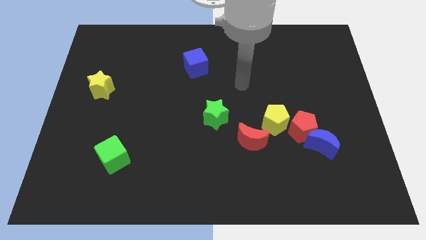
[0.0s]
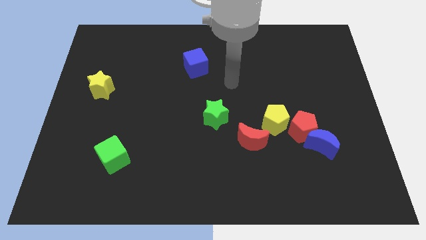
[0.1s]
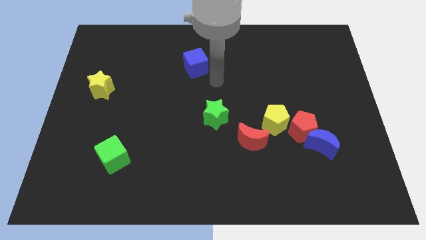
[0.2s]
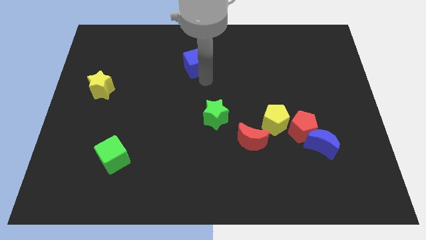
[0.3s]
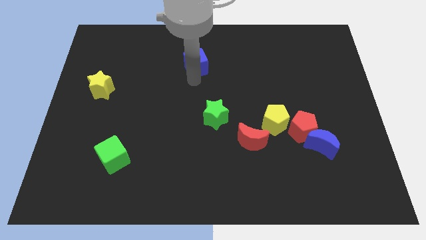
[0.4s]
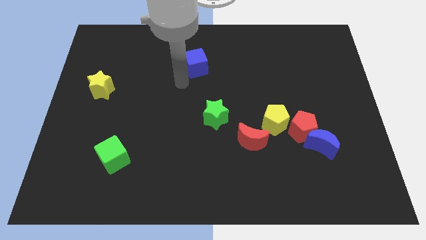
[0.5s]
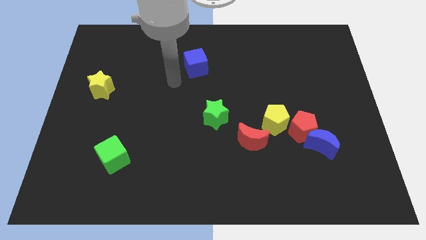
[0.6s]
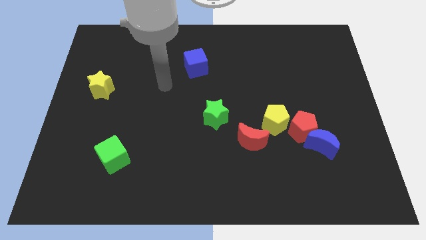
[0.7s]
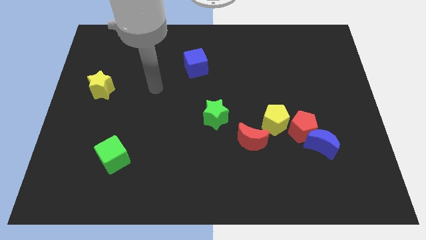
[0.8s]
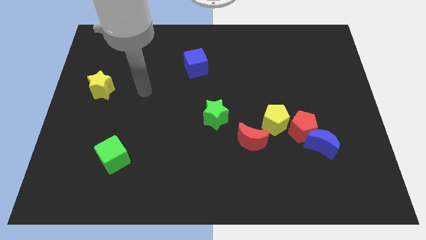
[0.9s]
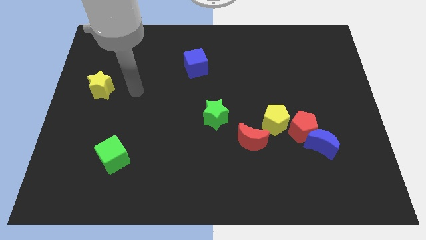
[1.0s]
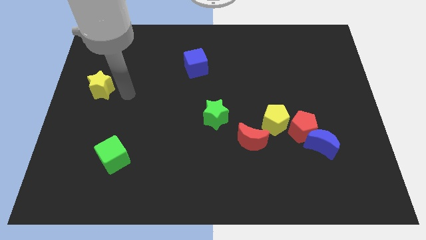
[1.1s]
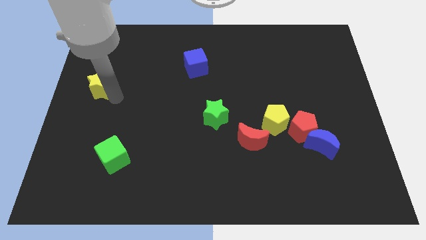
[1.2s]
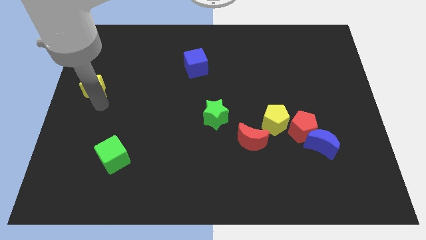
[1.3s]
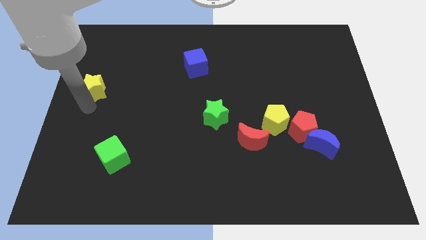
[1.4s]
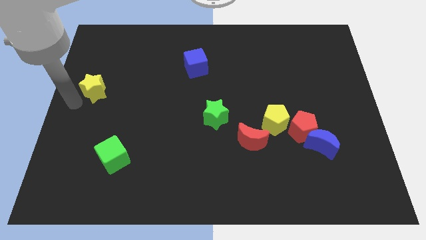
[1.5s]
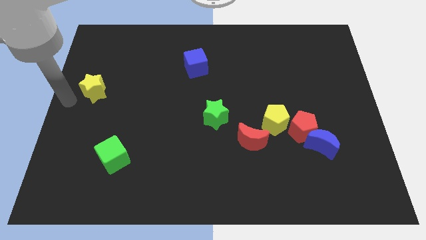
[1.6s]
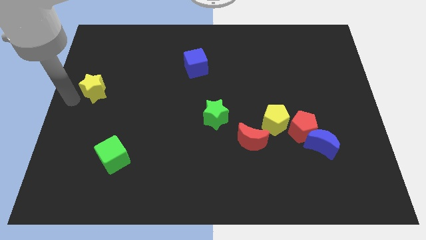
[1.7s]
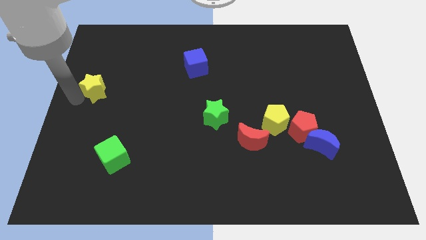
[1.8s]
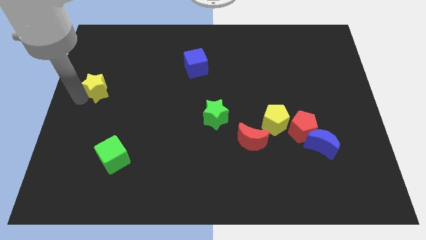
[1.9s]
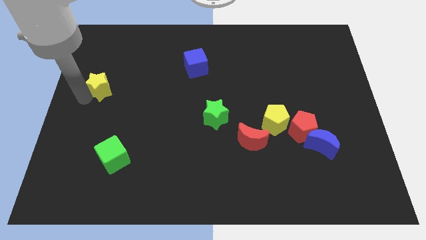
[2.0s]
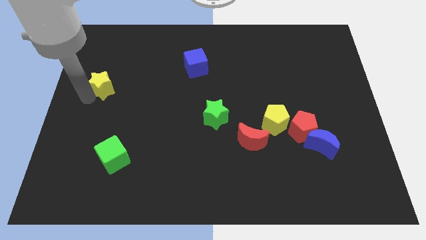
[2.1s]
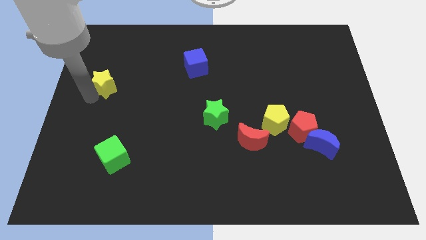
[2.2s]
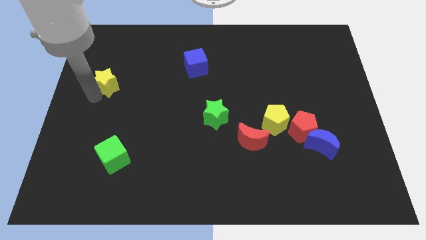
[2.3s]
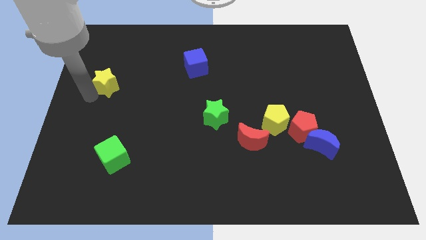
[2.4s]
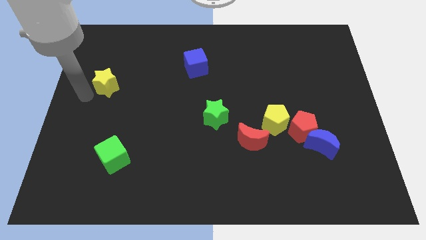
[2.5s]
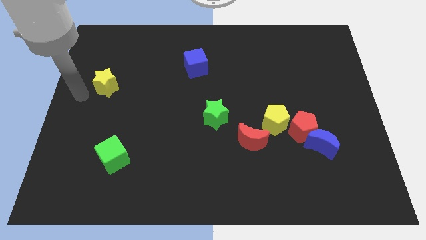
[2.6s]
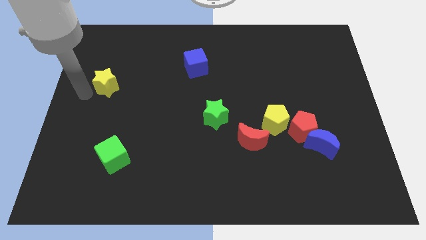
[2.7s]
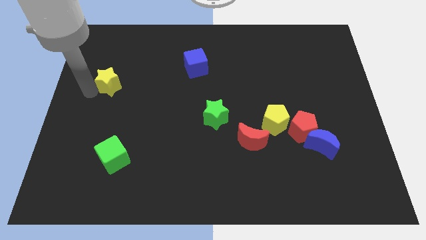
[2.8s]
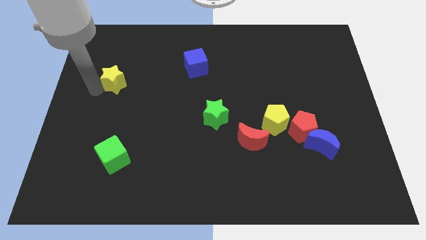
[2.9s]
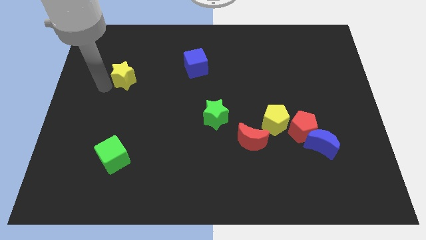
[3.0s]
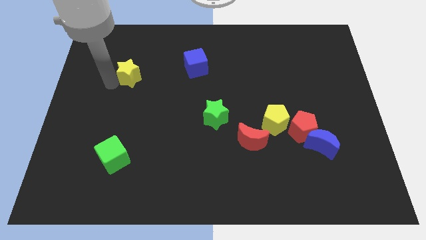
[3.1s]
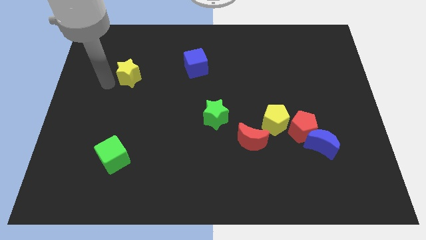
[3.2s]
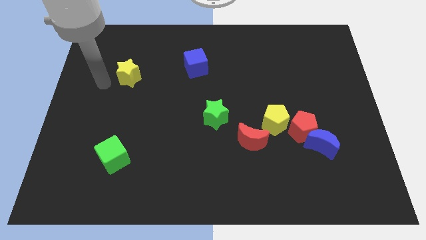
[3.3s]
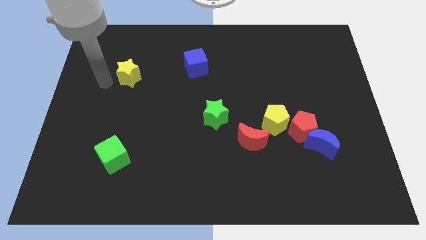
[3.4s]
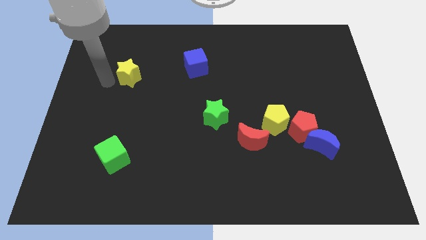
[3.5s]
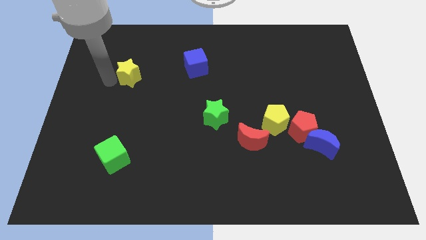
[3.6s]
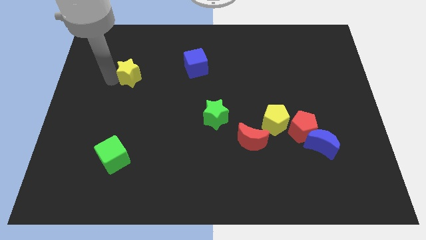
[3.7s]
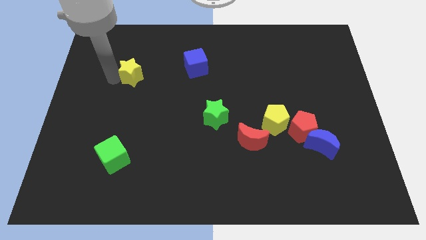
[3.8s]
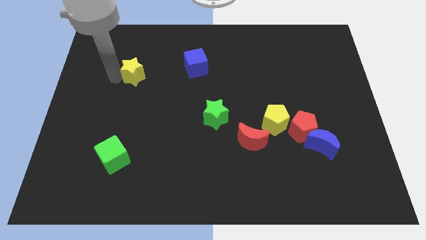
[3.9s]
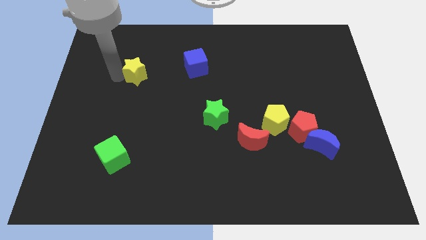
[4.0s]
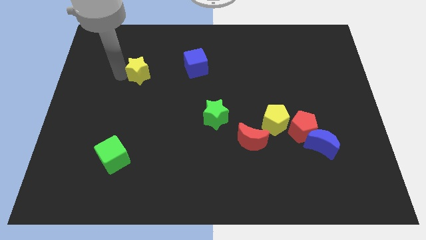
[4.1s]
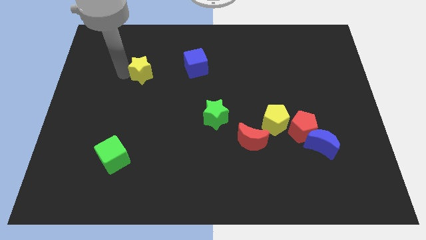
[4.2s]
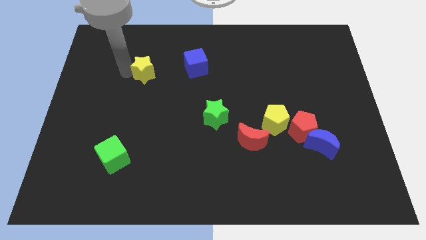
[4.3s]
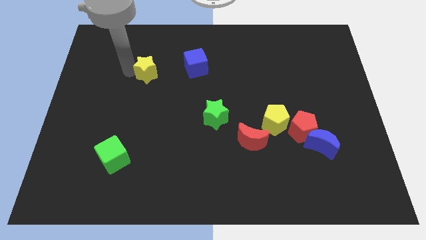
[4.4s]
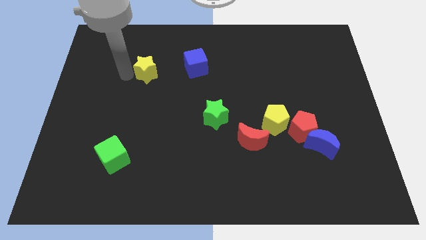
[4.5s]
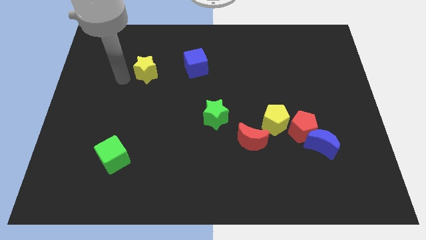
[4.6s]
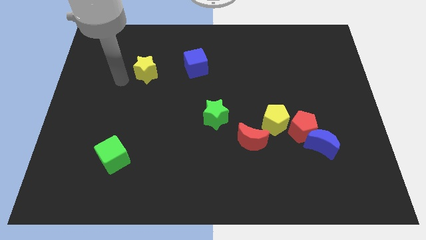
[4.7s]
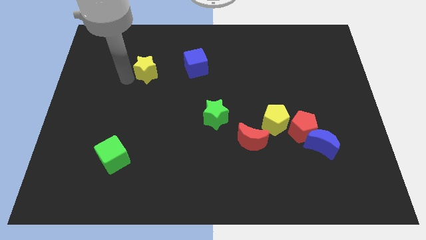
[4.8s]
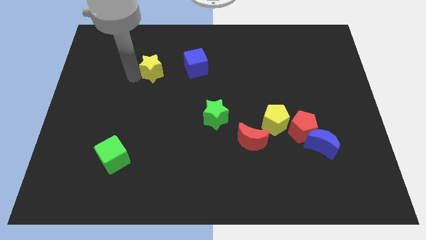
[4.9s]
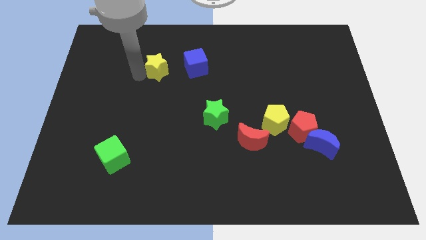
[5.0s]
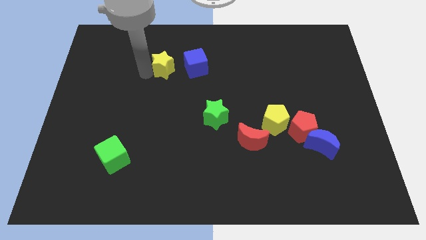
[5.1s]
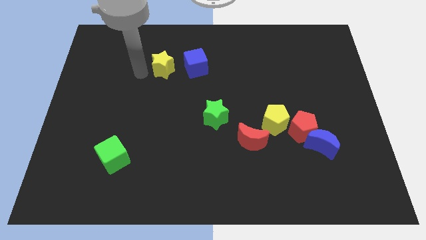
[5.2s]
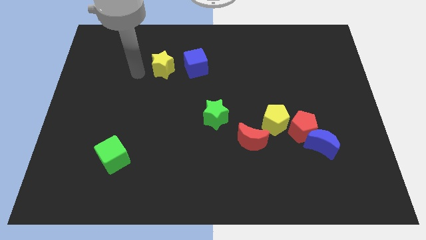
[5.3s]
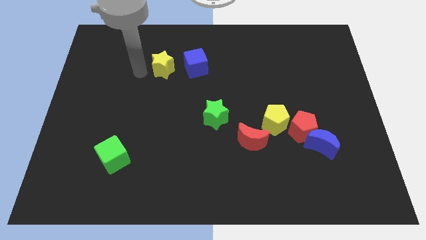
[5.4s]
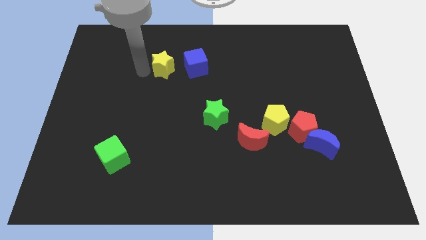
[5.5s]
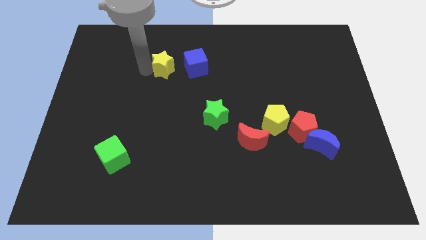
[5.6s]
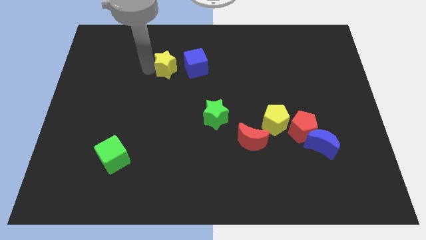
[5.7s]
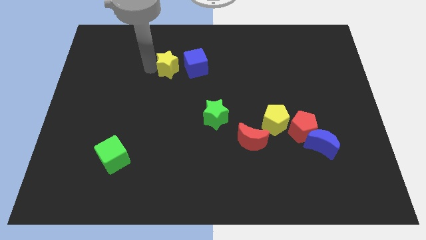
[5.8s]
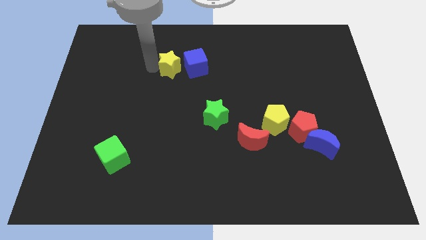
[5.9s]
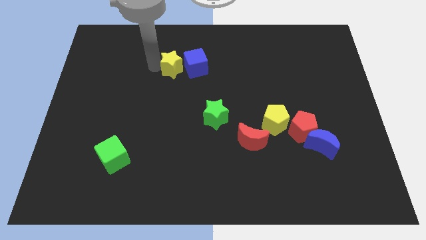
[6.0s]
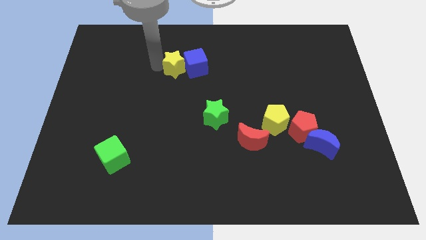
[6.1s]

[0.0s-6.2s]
move the yellow star to the blue cube

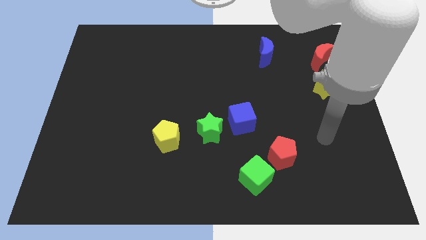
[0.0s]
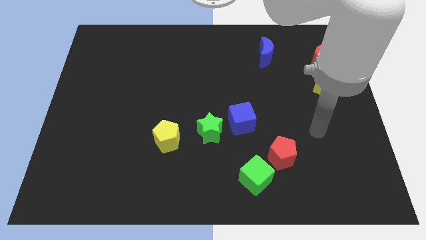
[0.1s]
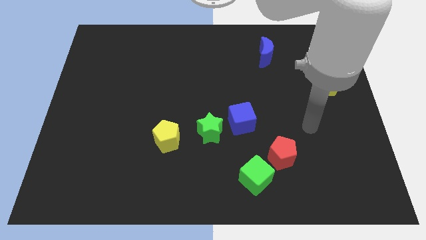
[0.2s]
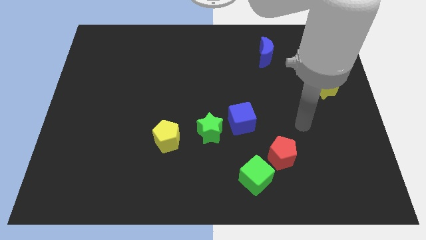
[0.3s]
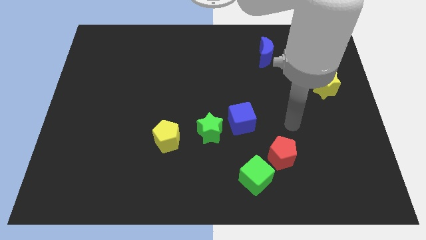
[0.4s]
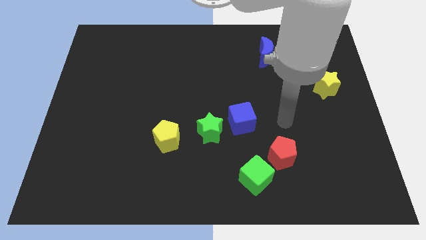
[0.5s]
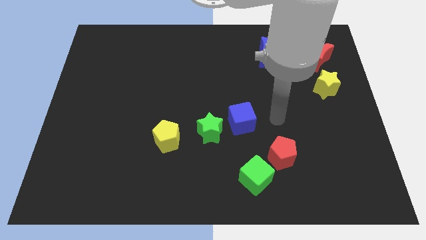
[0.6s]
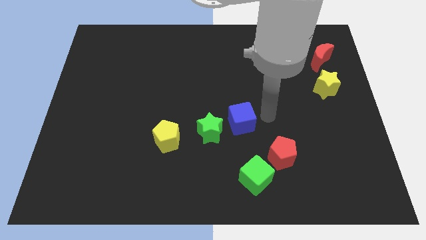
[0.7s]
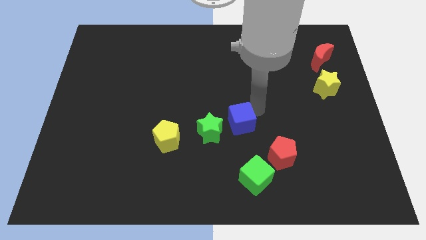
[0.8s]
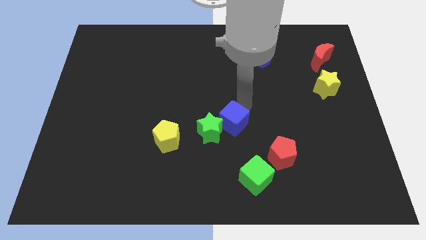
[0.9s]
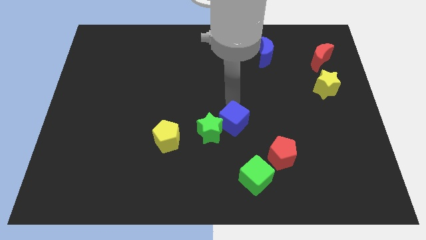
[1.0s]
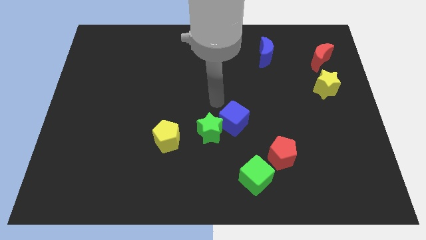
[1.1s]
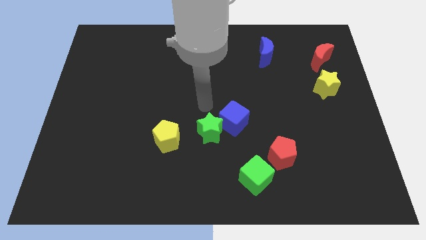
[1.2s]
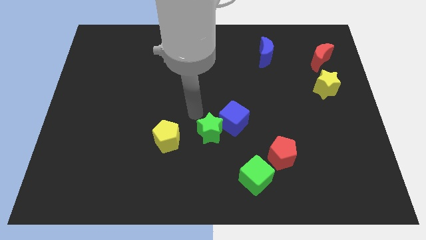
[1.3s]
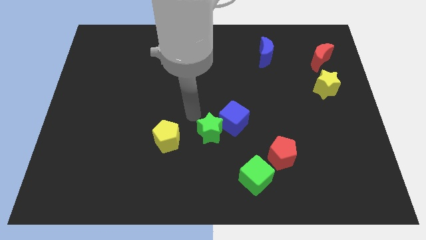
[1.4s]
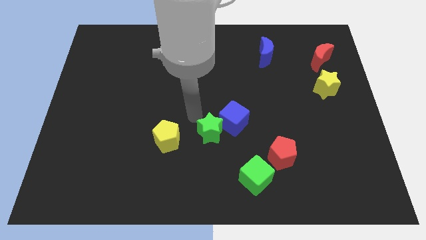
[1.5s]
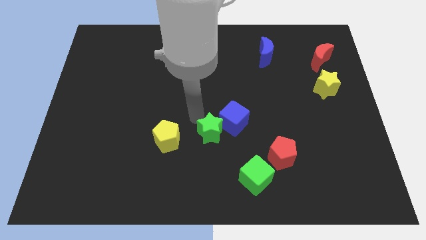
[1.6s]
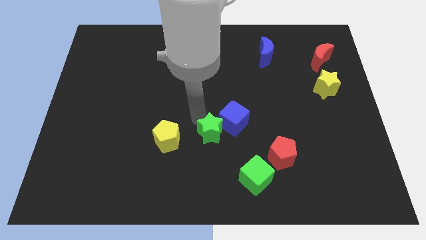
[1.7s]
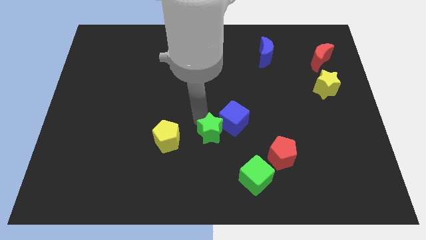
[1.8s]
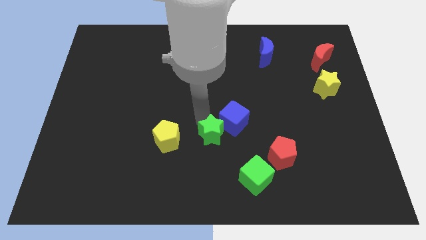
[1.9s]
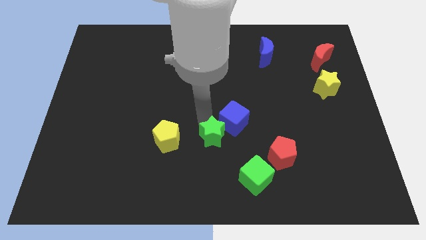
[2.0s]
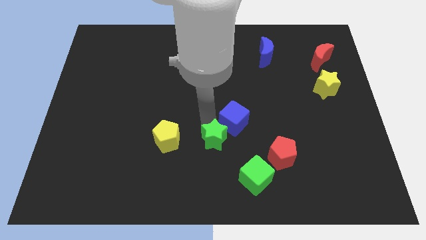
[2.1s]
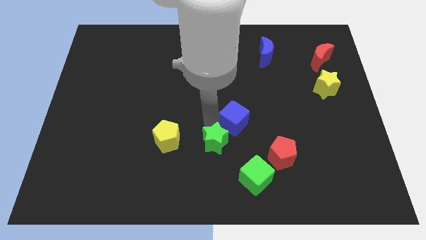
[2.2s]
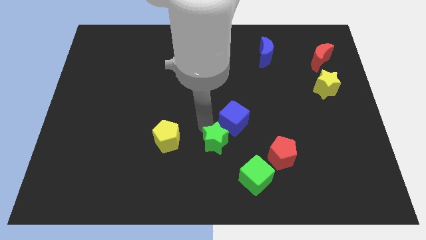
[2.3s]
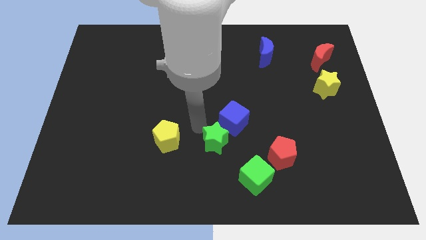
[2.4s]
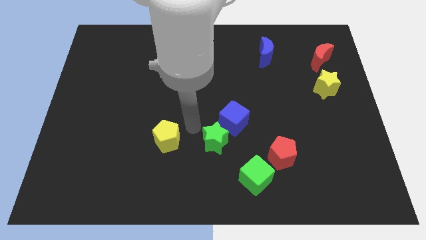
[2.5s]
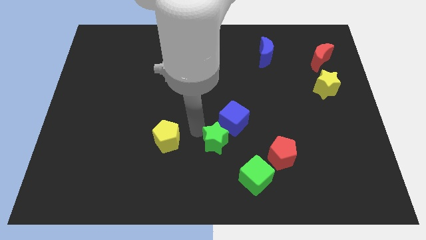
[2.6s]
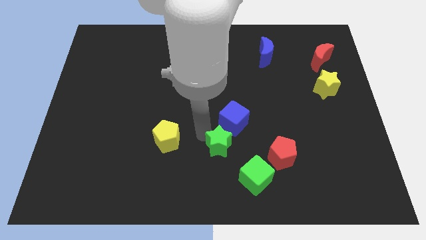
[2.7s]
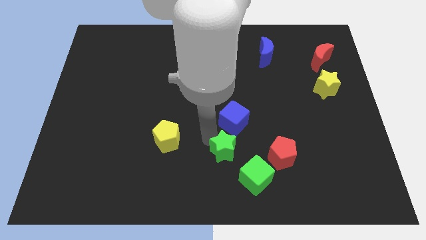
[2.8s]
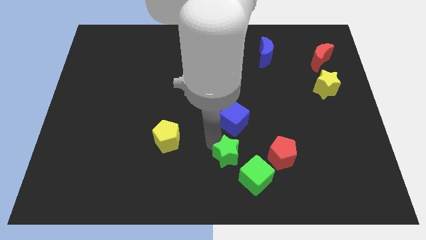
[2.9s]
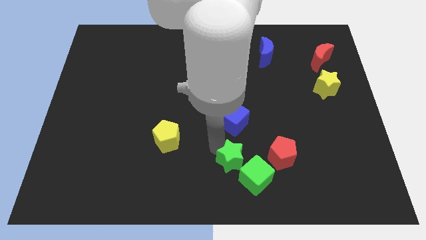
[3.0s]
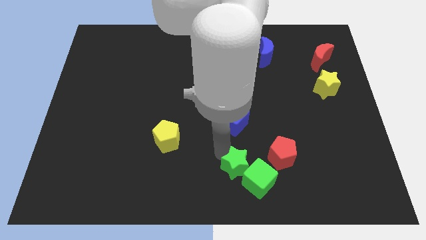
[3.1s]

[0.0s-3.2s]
move the green star to the green cube
